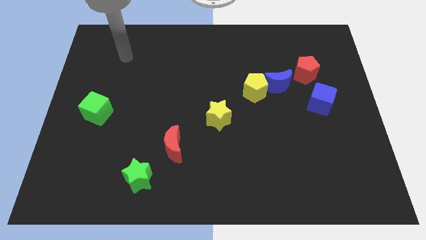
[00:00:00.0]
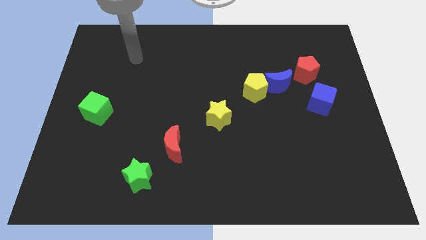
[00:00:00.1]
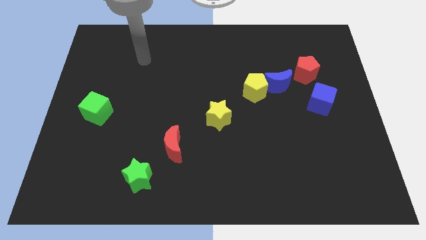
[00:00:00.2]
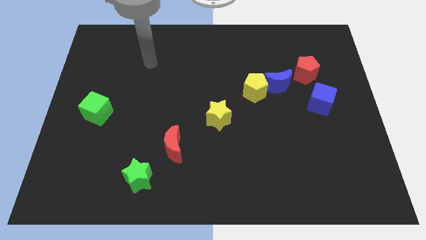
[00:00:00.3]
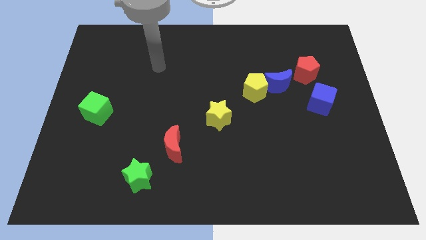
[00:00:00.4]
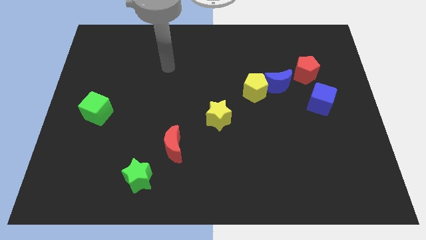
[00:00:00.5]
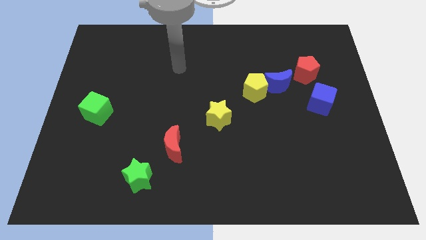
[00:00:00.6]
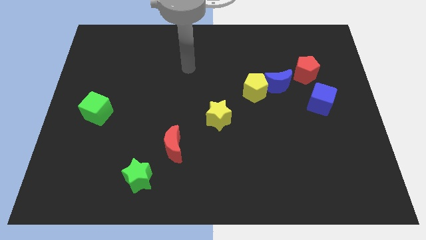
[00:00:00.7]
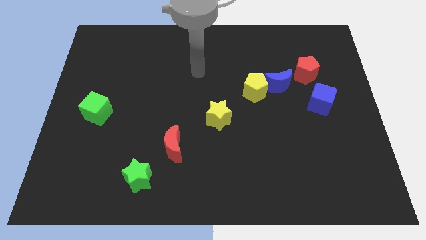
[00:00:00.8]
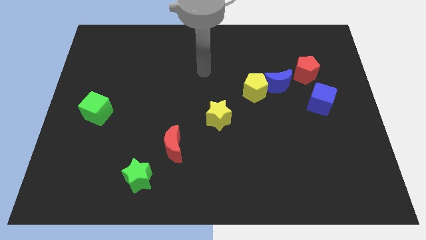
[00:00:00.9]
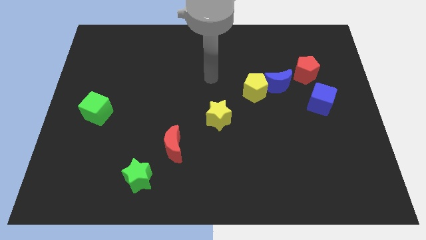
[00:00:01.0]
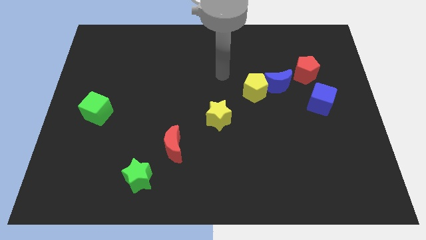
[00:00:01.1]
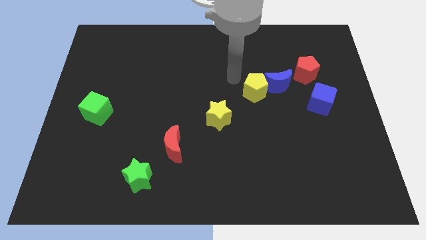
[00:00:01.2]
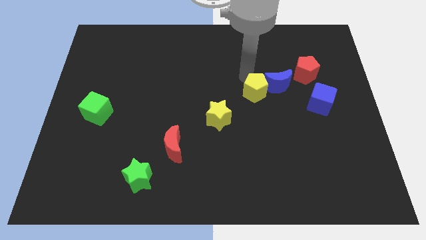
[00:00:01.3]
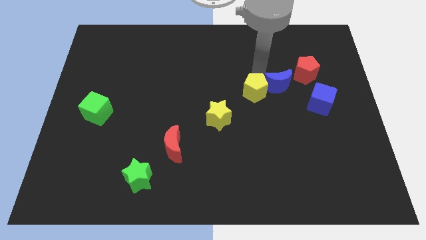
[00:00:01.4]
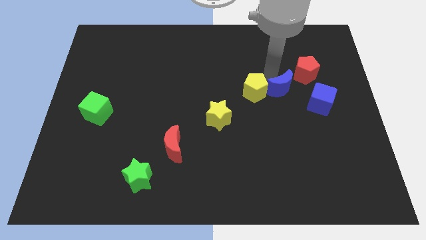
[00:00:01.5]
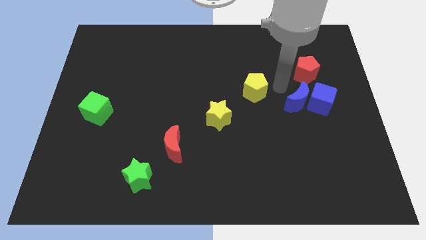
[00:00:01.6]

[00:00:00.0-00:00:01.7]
separate the yellow pentagon from the blue moon

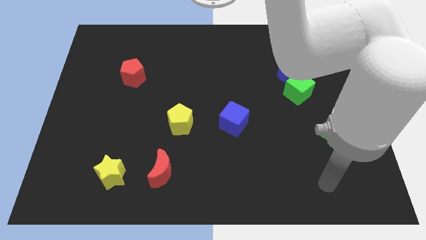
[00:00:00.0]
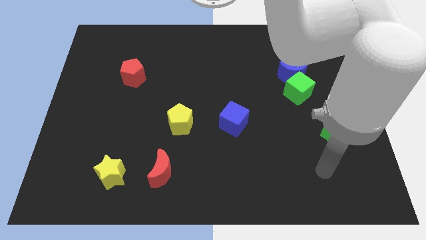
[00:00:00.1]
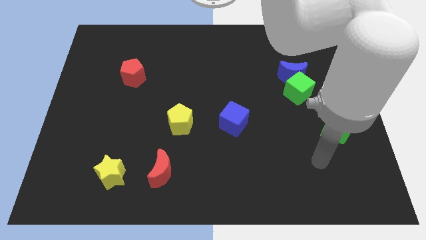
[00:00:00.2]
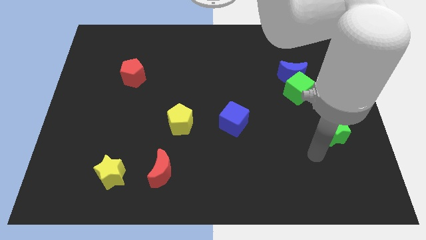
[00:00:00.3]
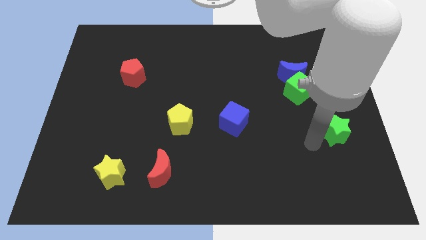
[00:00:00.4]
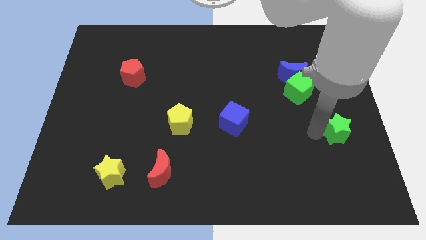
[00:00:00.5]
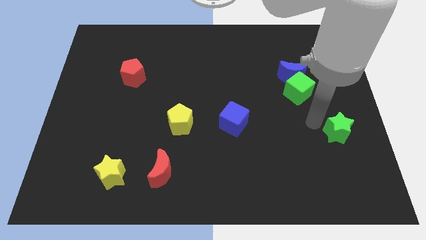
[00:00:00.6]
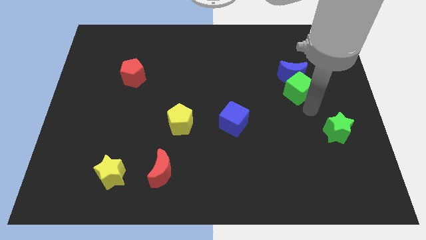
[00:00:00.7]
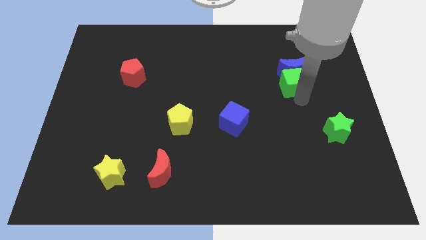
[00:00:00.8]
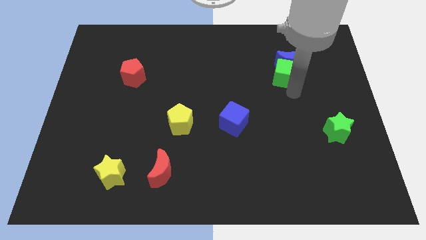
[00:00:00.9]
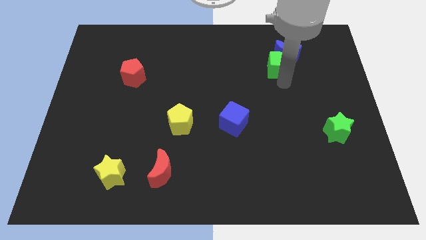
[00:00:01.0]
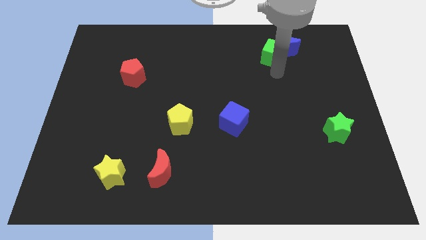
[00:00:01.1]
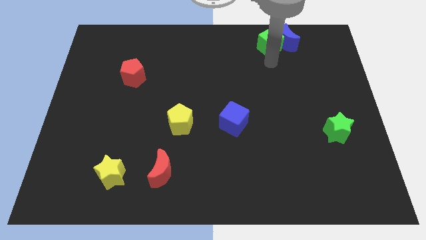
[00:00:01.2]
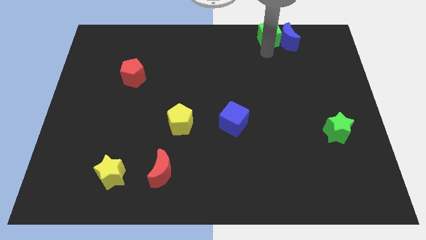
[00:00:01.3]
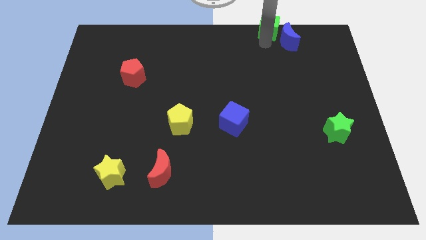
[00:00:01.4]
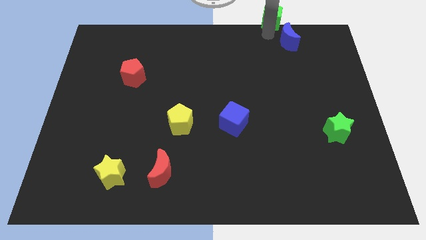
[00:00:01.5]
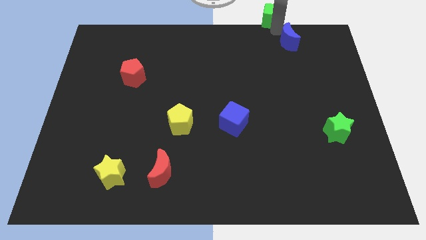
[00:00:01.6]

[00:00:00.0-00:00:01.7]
pull the blue moon apart from the green cube

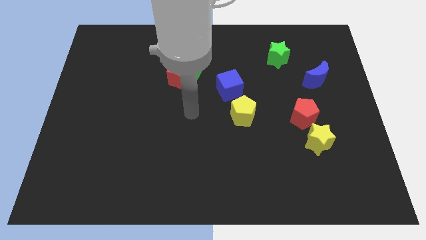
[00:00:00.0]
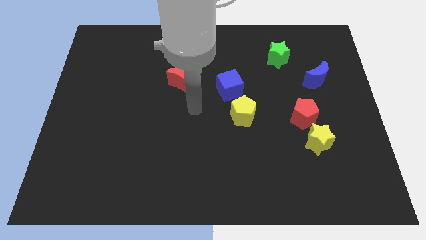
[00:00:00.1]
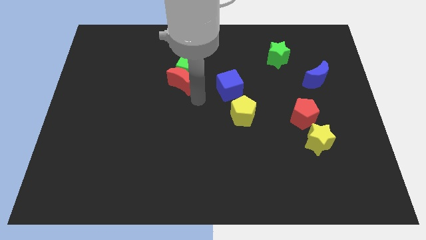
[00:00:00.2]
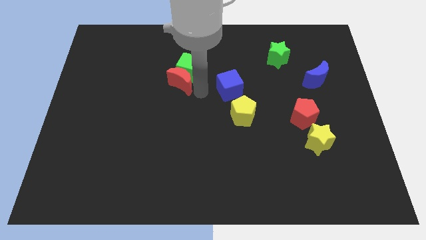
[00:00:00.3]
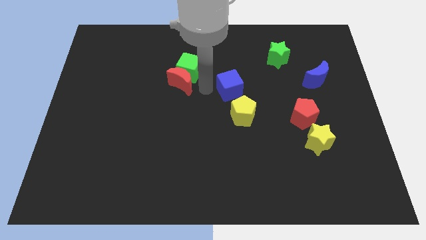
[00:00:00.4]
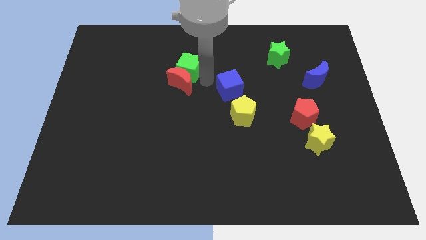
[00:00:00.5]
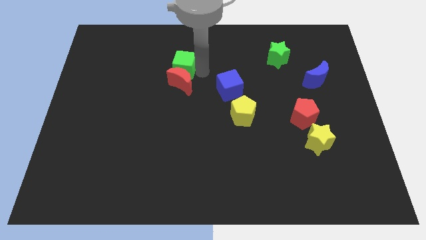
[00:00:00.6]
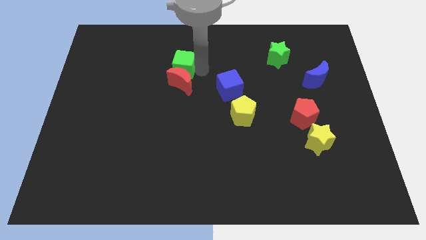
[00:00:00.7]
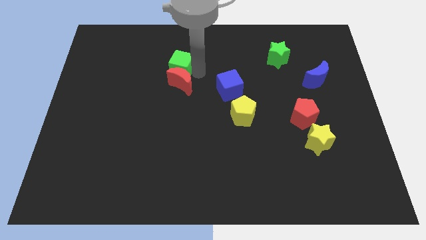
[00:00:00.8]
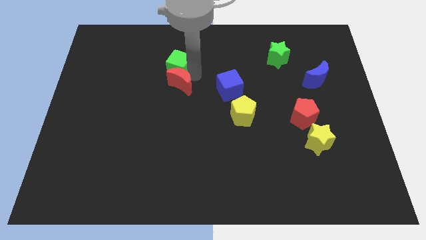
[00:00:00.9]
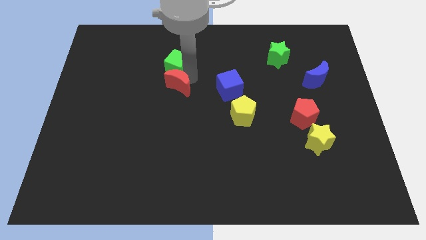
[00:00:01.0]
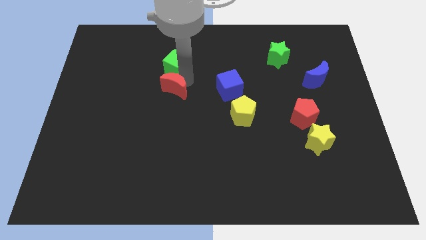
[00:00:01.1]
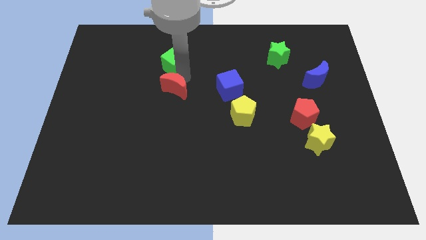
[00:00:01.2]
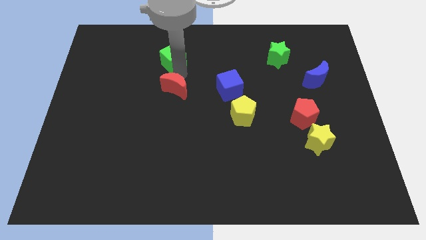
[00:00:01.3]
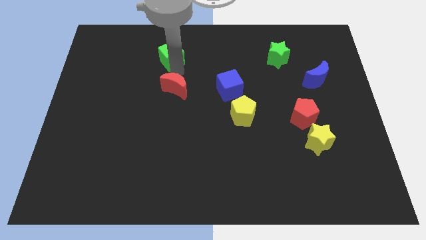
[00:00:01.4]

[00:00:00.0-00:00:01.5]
separate the red moon from the green cube

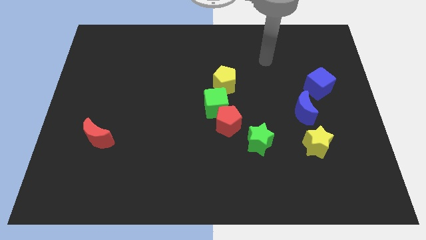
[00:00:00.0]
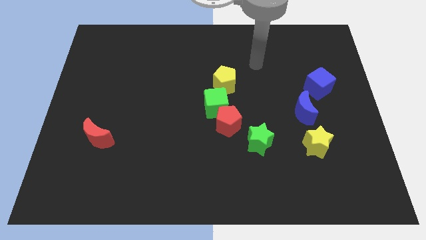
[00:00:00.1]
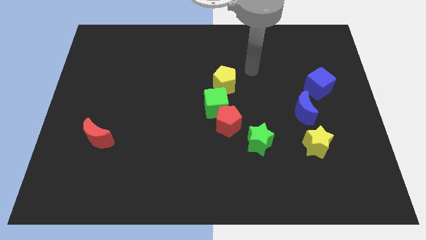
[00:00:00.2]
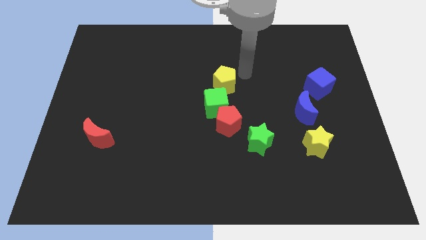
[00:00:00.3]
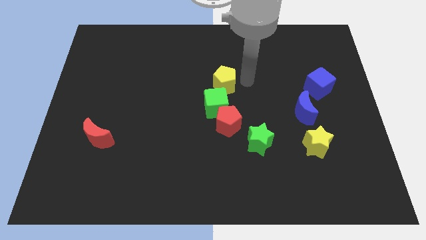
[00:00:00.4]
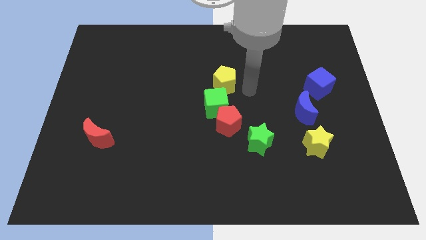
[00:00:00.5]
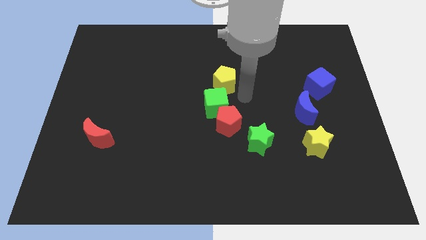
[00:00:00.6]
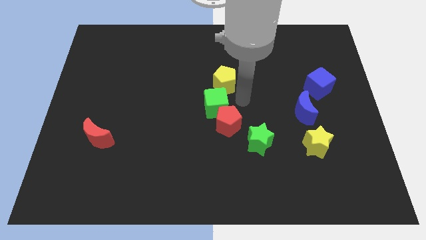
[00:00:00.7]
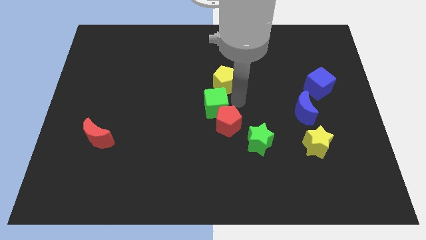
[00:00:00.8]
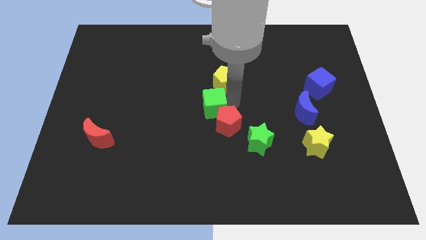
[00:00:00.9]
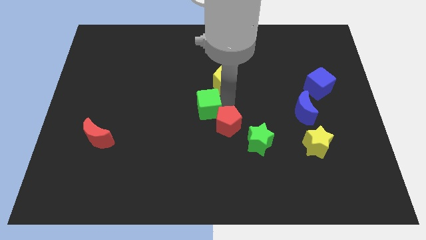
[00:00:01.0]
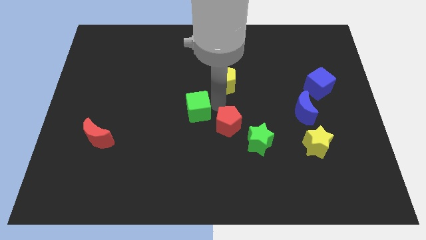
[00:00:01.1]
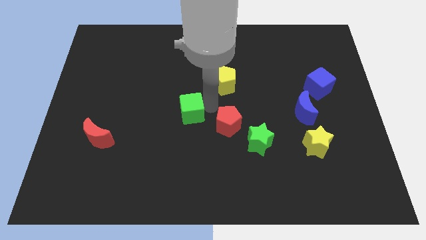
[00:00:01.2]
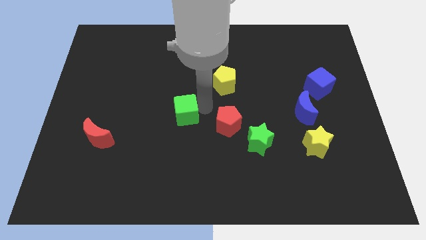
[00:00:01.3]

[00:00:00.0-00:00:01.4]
separate the green cube from the red pentagon and yellow pentagon

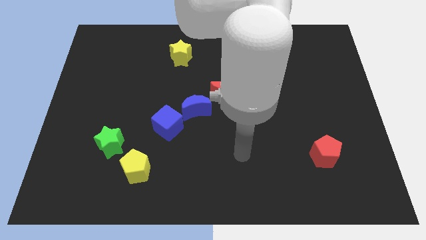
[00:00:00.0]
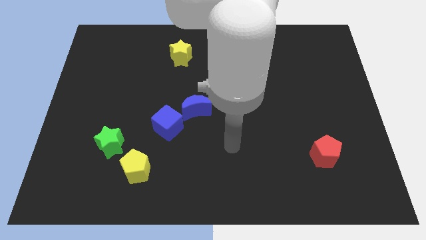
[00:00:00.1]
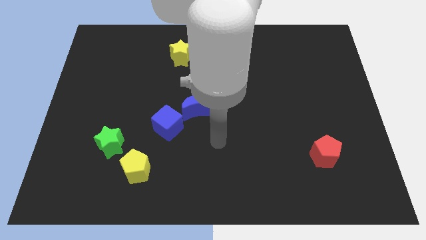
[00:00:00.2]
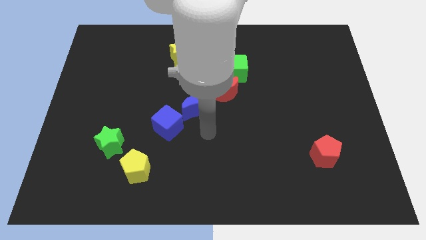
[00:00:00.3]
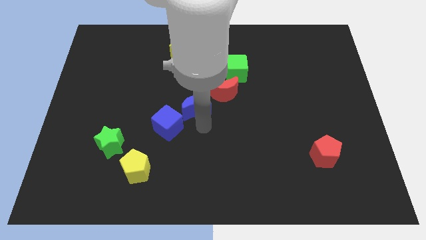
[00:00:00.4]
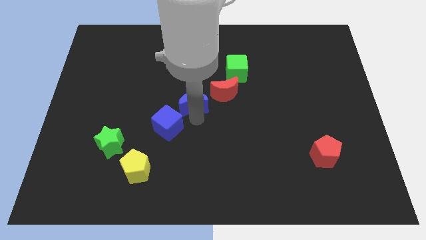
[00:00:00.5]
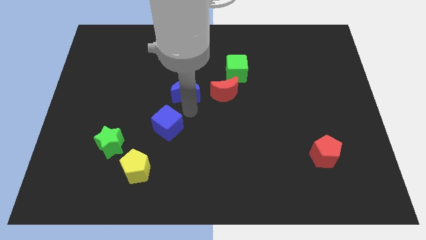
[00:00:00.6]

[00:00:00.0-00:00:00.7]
separate the blue cube from the blue moon

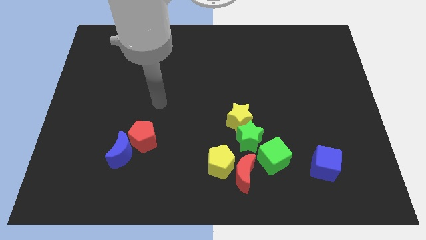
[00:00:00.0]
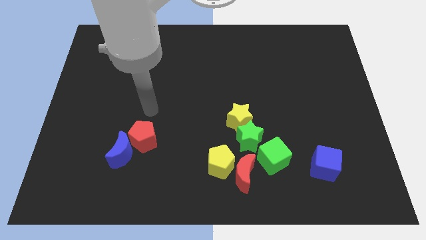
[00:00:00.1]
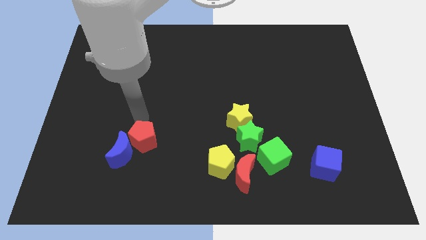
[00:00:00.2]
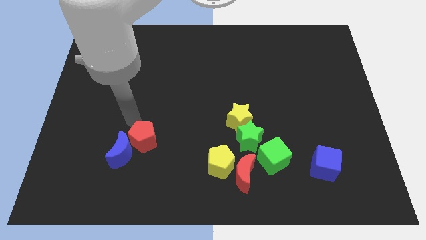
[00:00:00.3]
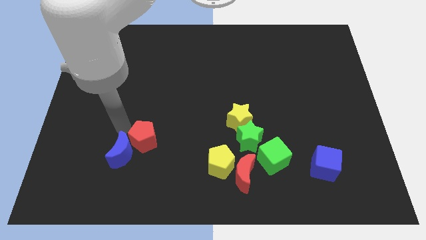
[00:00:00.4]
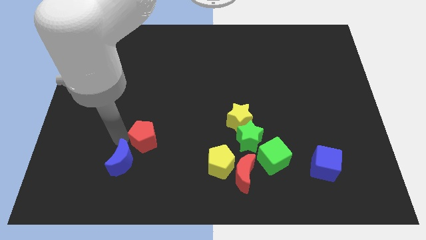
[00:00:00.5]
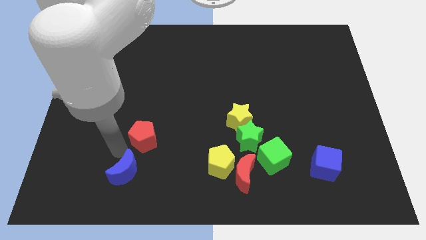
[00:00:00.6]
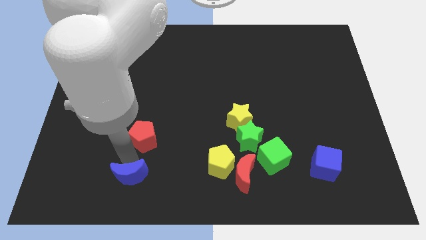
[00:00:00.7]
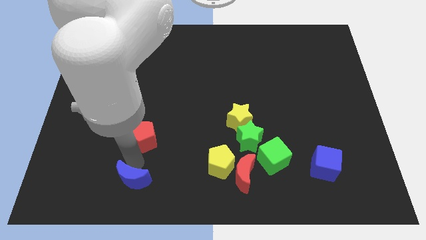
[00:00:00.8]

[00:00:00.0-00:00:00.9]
separate the red pentagon from the blue moon

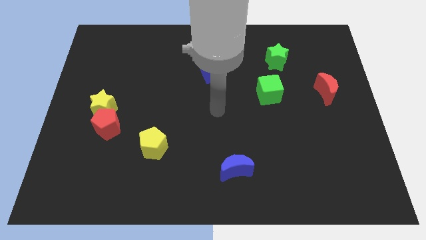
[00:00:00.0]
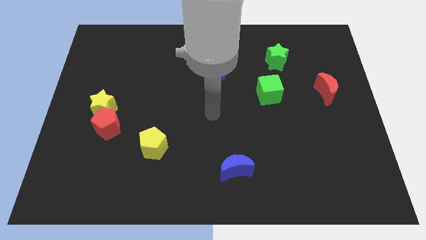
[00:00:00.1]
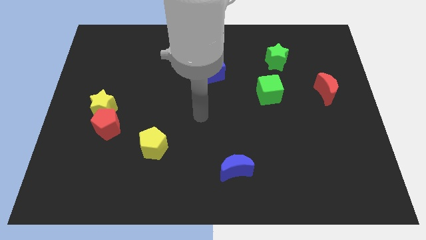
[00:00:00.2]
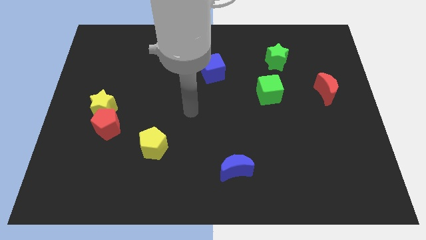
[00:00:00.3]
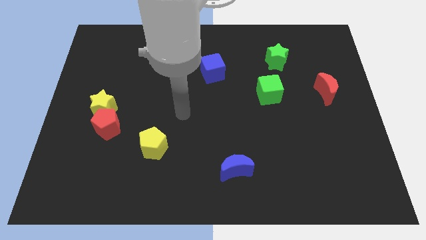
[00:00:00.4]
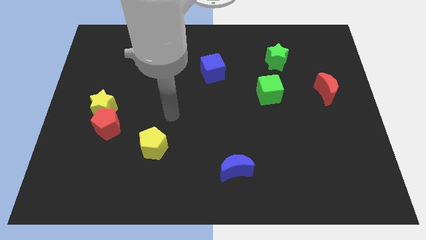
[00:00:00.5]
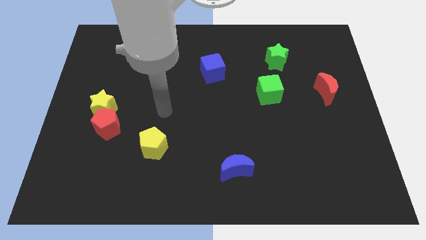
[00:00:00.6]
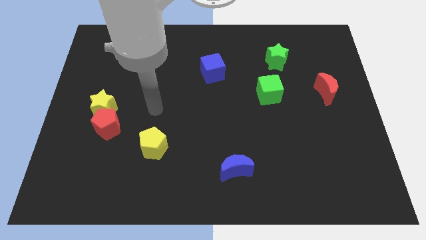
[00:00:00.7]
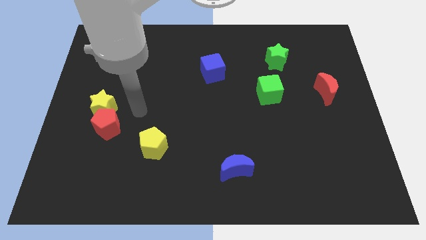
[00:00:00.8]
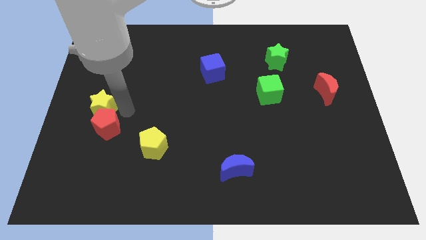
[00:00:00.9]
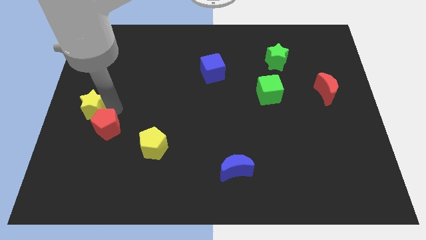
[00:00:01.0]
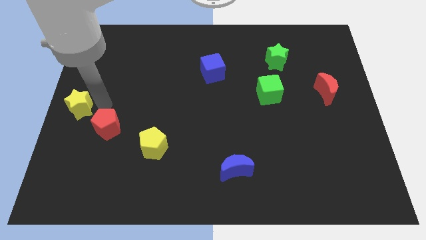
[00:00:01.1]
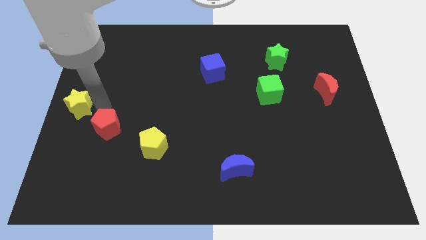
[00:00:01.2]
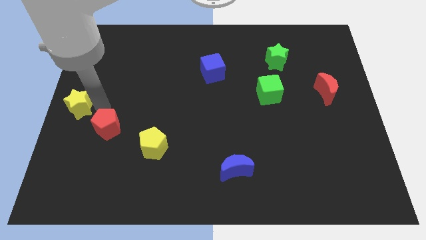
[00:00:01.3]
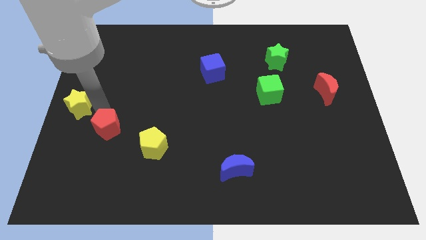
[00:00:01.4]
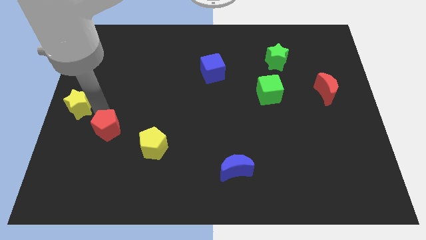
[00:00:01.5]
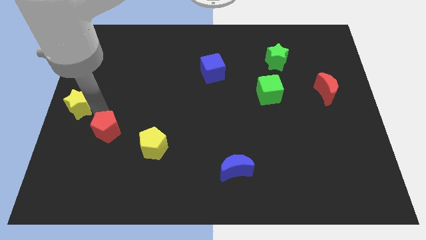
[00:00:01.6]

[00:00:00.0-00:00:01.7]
separate the red pentagon from the yellow star
